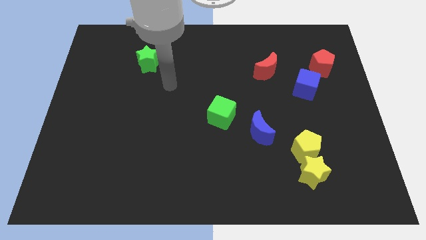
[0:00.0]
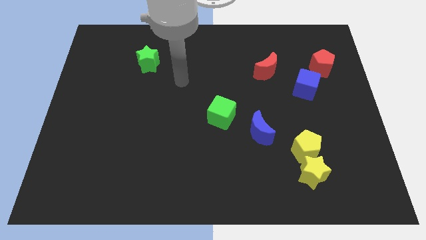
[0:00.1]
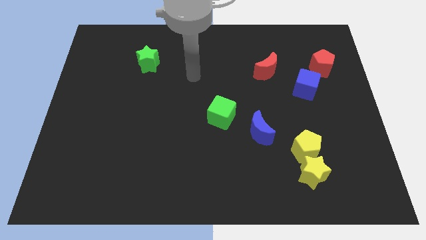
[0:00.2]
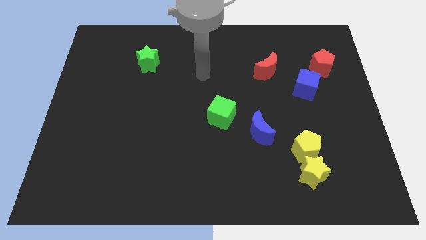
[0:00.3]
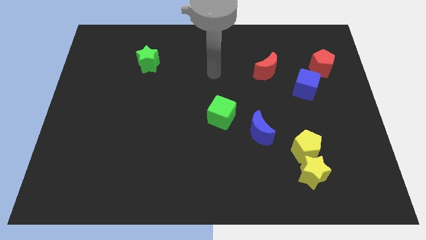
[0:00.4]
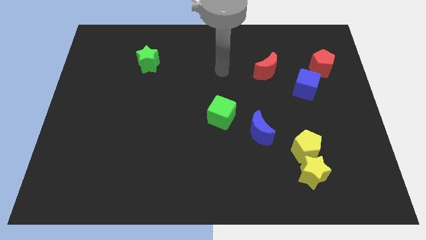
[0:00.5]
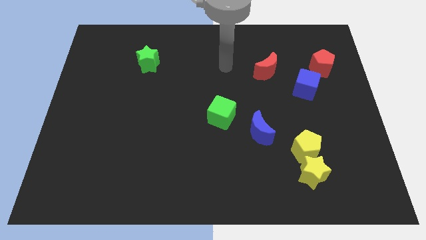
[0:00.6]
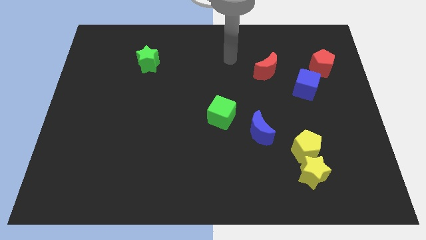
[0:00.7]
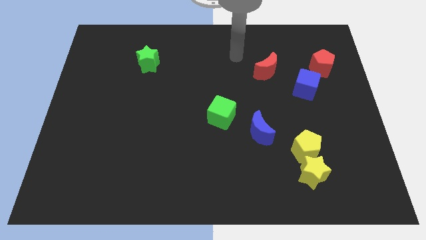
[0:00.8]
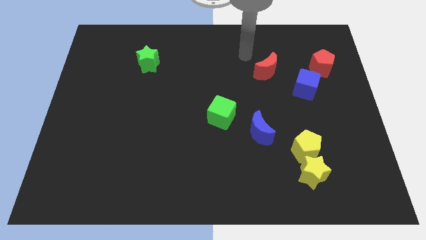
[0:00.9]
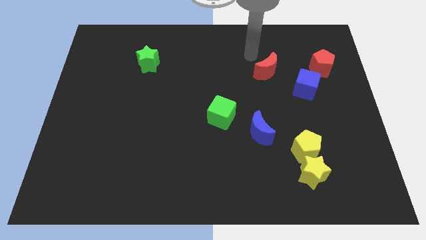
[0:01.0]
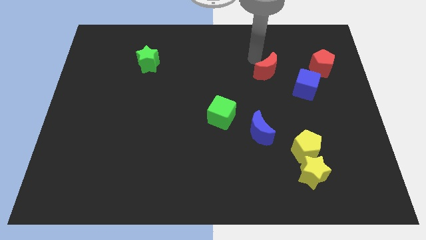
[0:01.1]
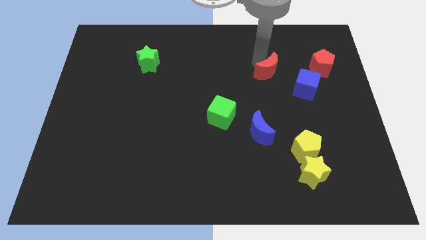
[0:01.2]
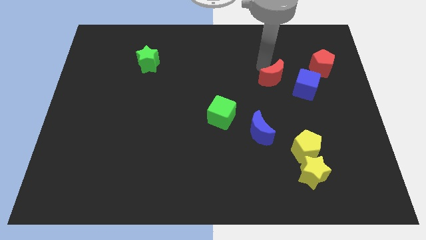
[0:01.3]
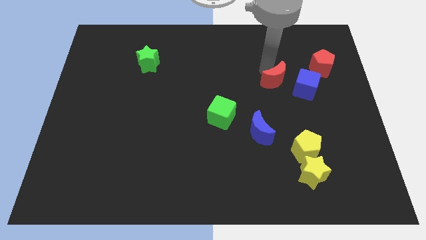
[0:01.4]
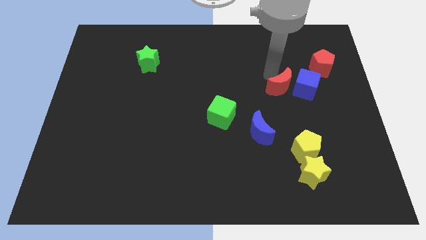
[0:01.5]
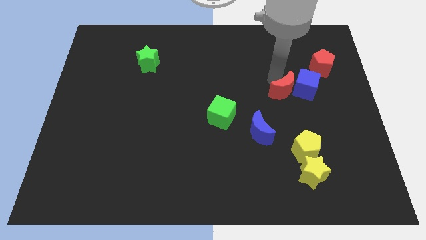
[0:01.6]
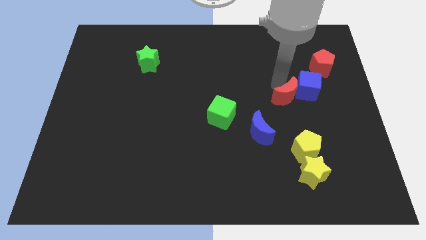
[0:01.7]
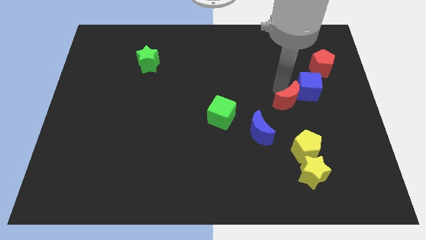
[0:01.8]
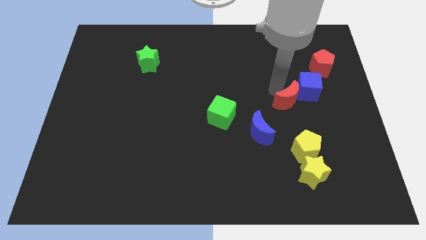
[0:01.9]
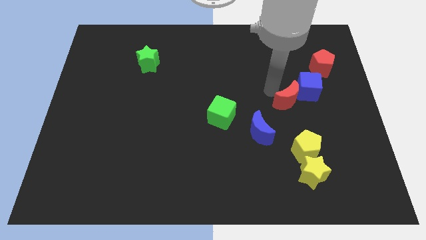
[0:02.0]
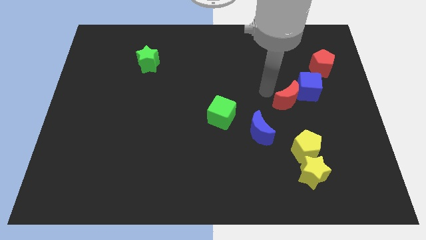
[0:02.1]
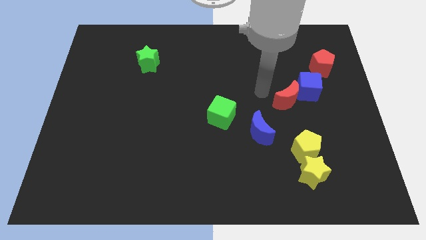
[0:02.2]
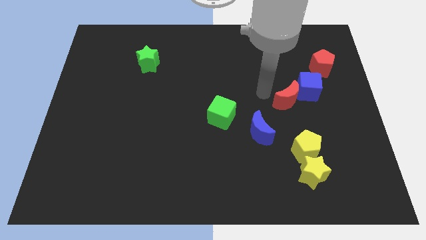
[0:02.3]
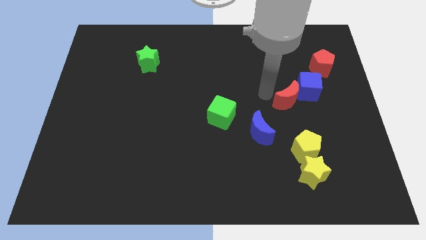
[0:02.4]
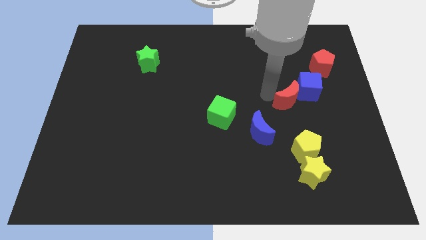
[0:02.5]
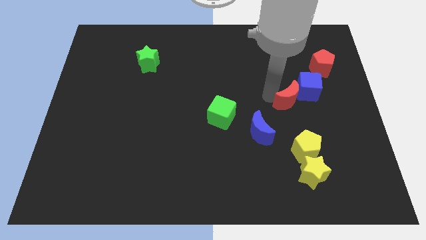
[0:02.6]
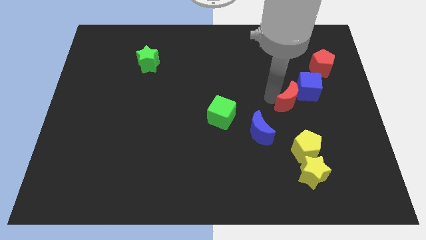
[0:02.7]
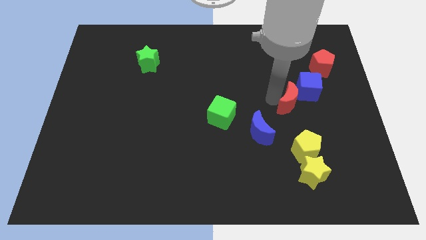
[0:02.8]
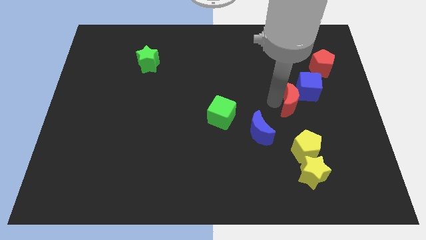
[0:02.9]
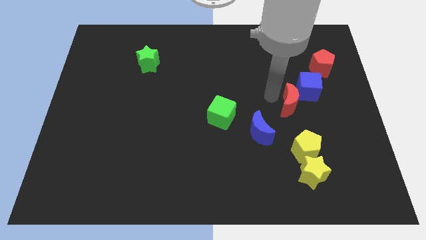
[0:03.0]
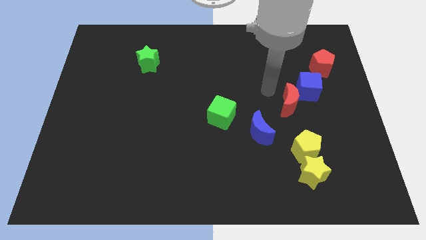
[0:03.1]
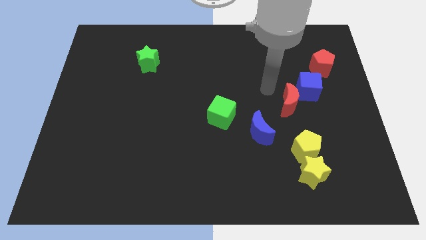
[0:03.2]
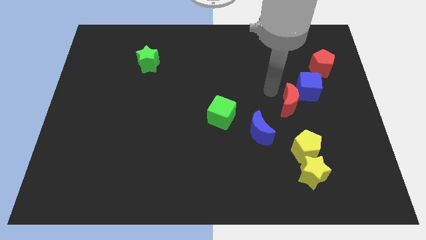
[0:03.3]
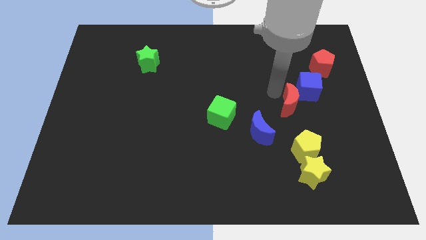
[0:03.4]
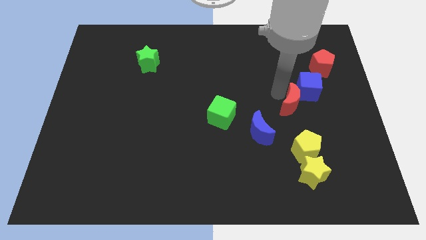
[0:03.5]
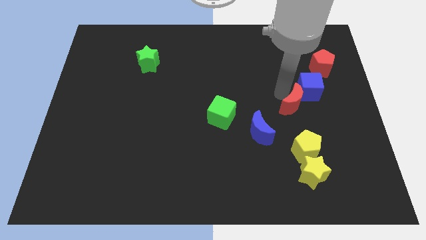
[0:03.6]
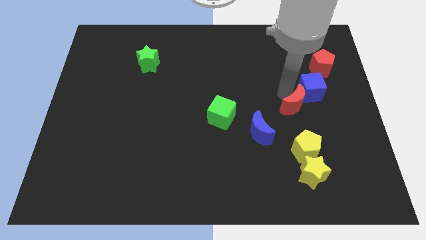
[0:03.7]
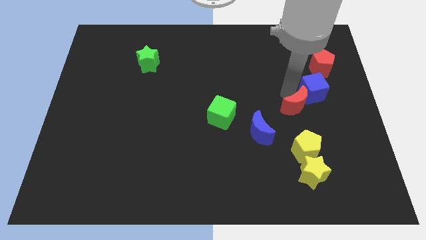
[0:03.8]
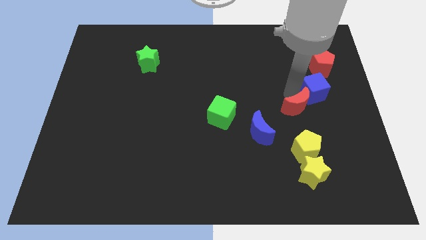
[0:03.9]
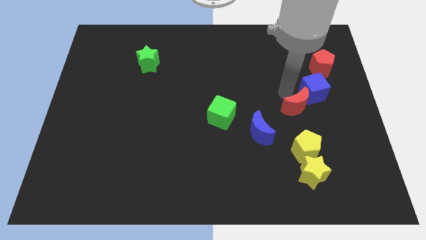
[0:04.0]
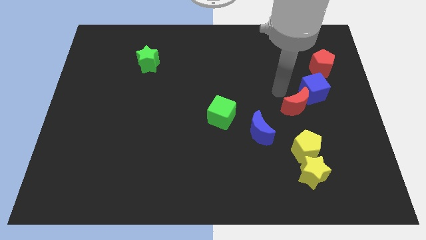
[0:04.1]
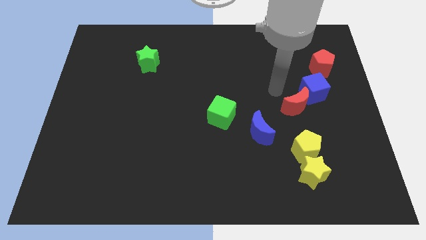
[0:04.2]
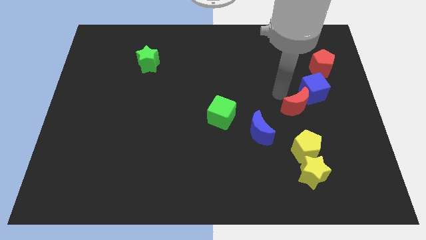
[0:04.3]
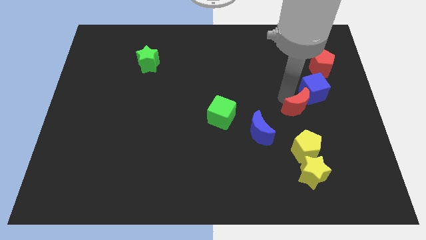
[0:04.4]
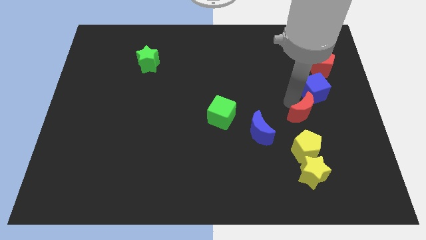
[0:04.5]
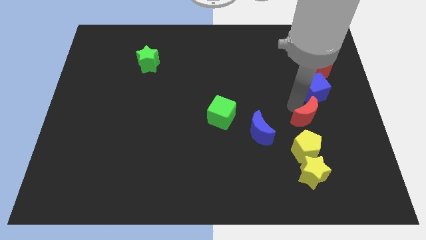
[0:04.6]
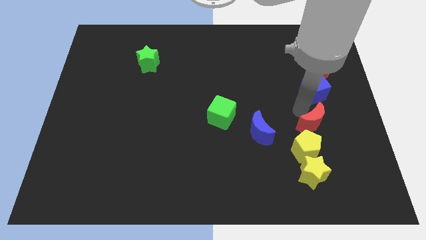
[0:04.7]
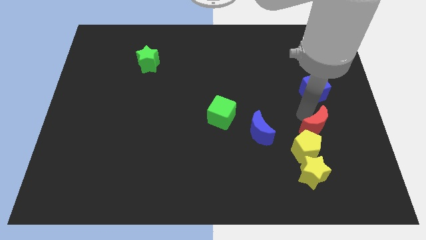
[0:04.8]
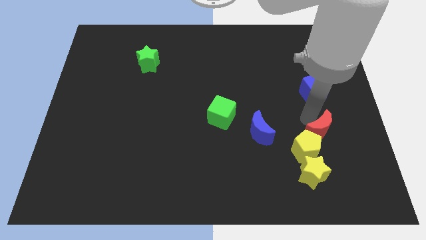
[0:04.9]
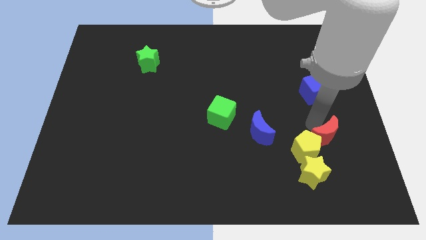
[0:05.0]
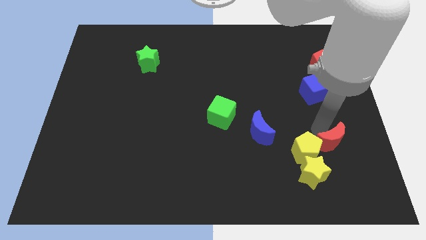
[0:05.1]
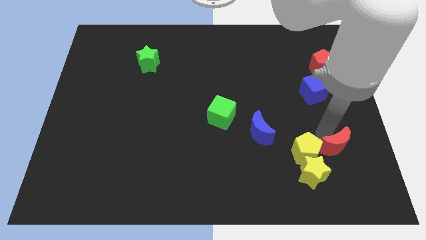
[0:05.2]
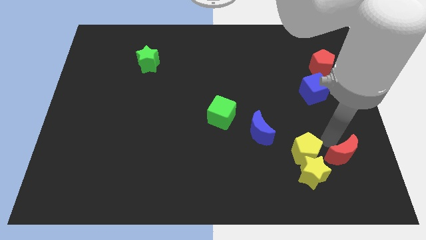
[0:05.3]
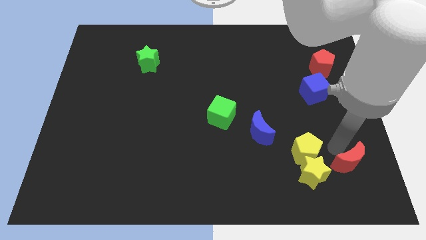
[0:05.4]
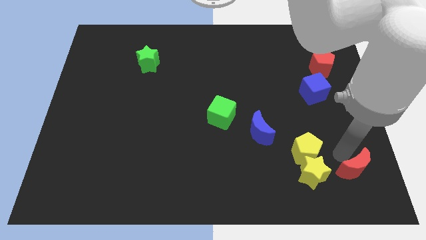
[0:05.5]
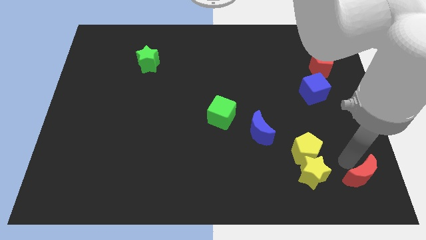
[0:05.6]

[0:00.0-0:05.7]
slide the red moon to the bottom right

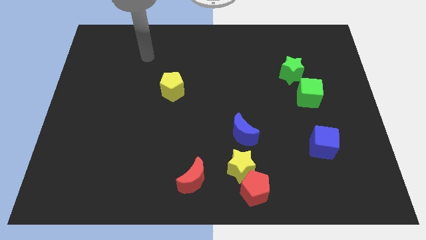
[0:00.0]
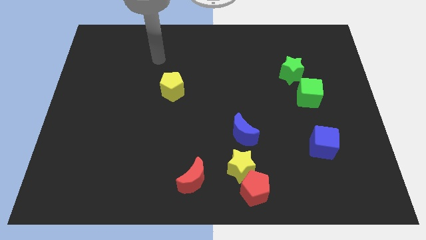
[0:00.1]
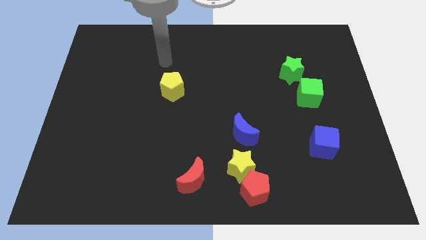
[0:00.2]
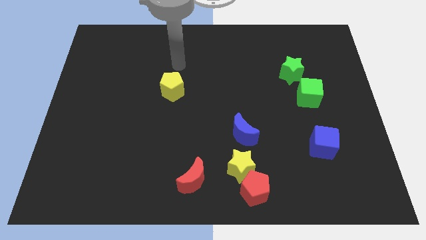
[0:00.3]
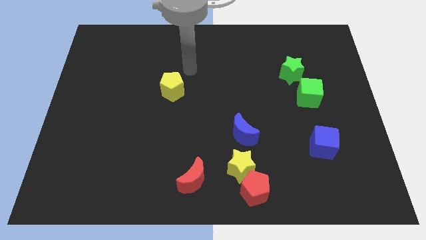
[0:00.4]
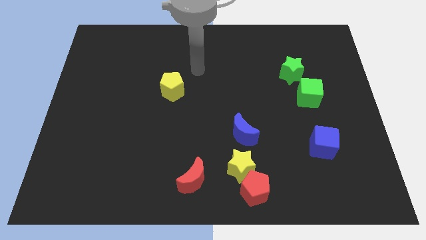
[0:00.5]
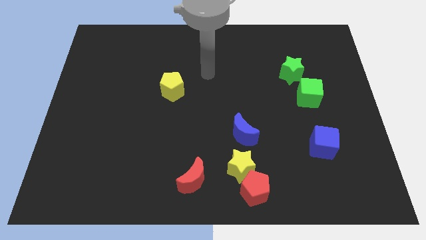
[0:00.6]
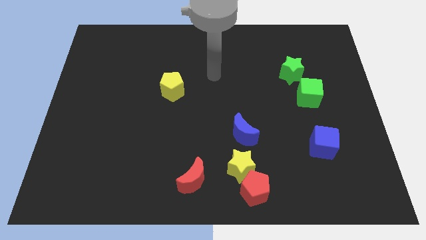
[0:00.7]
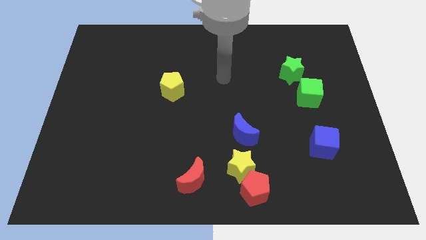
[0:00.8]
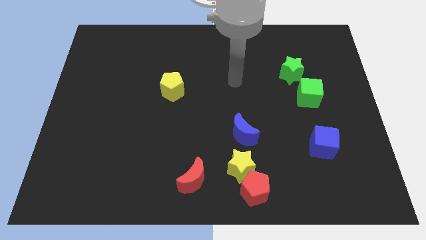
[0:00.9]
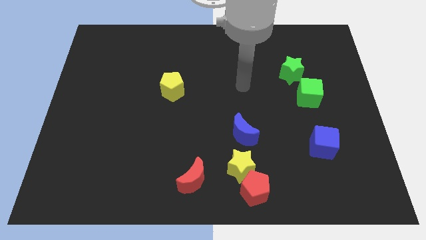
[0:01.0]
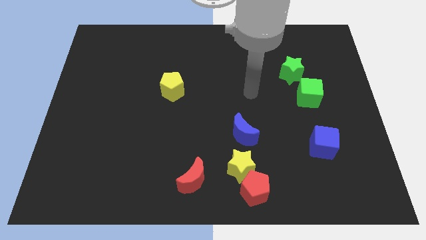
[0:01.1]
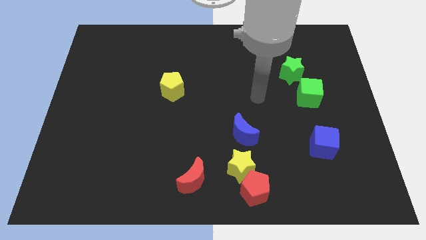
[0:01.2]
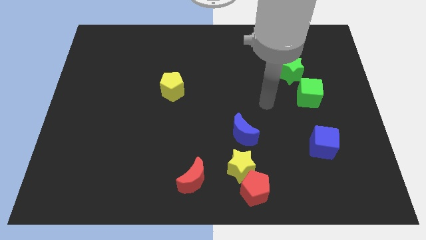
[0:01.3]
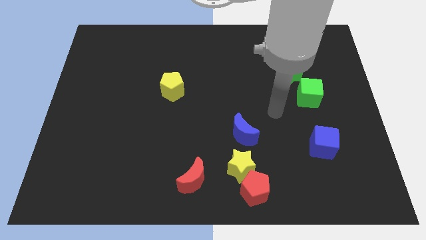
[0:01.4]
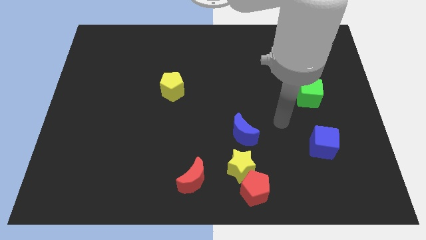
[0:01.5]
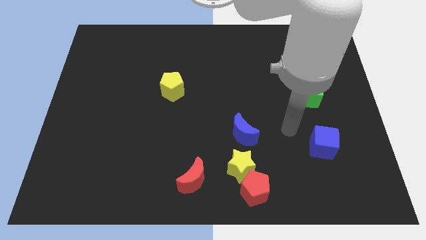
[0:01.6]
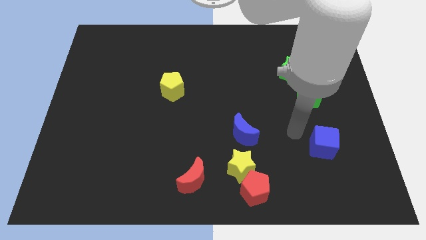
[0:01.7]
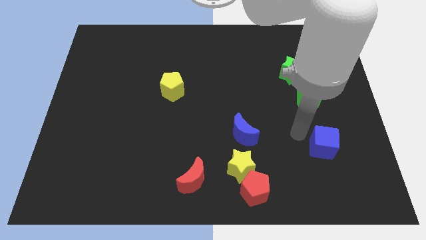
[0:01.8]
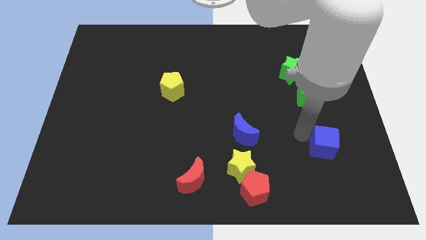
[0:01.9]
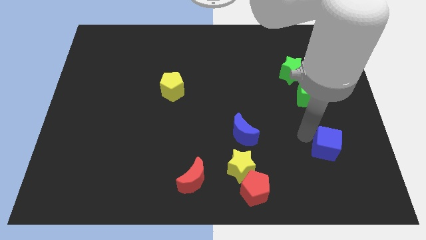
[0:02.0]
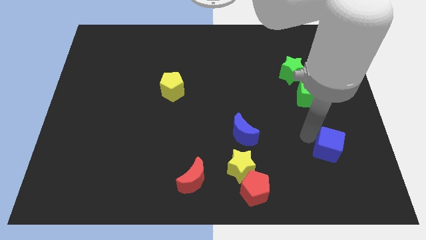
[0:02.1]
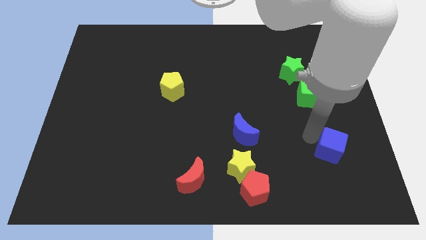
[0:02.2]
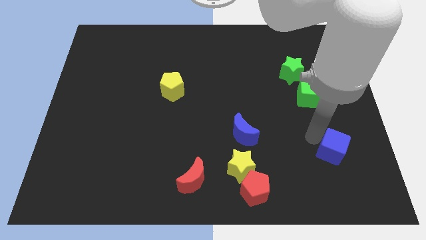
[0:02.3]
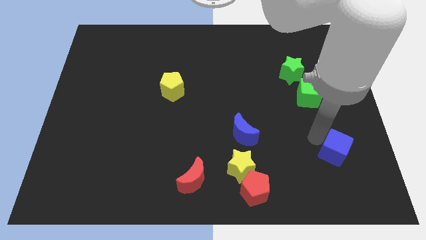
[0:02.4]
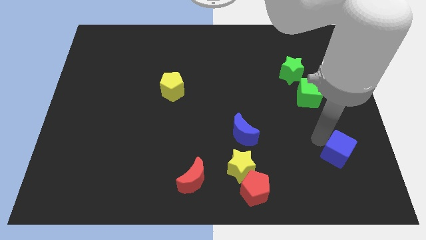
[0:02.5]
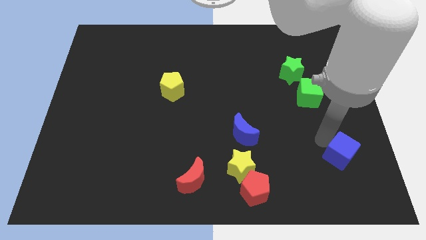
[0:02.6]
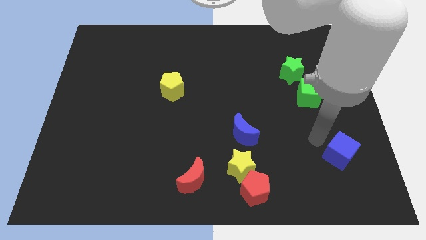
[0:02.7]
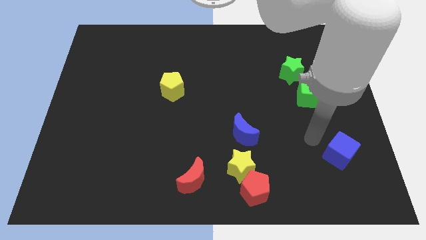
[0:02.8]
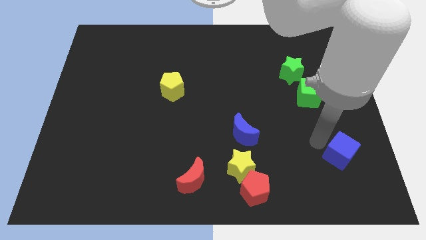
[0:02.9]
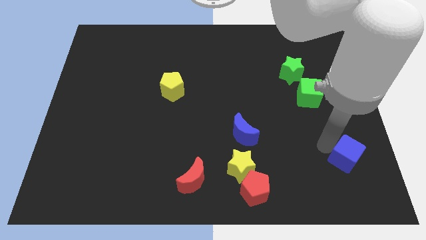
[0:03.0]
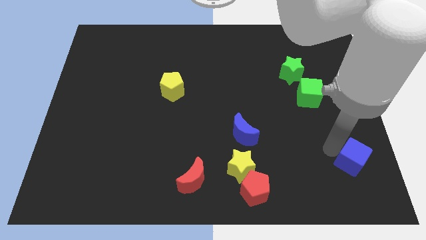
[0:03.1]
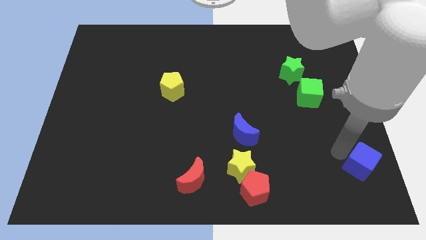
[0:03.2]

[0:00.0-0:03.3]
slide the blue cube to the bottom right corner
